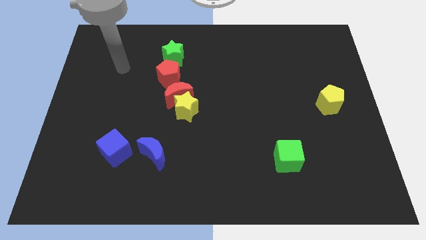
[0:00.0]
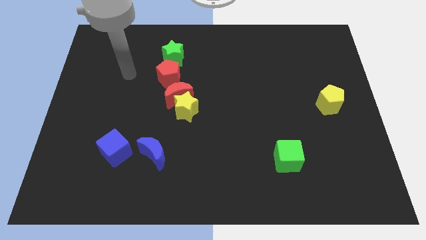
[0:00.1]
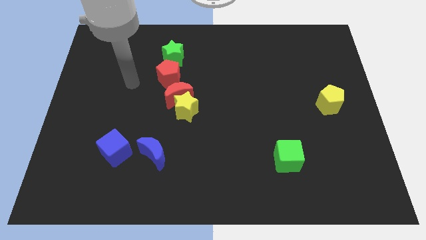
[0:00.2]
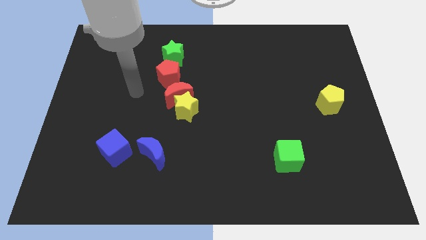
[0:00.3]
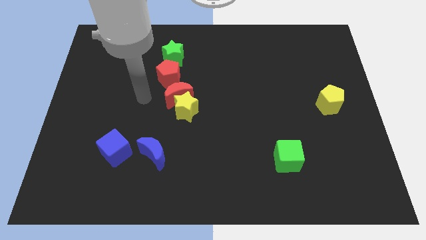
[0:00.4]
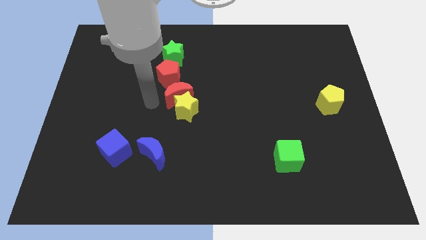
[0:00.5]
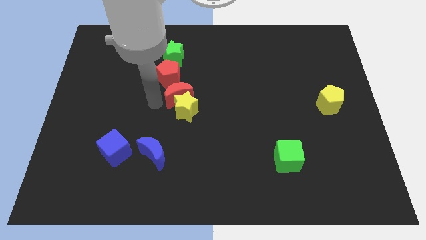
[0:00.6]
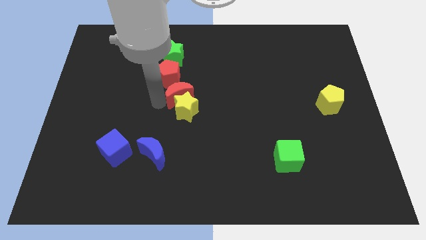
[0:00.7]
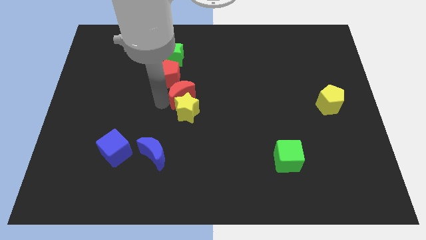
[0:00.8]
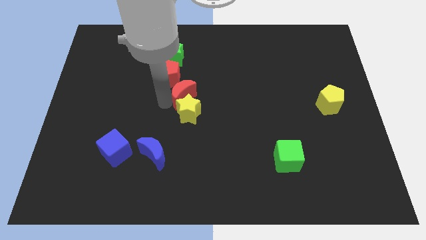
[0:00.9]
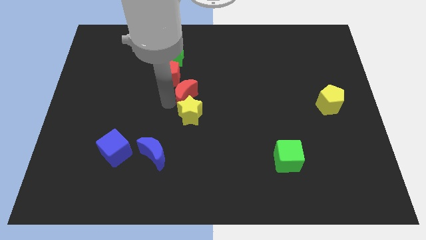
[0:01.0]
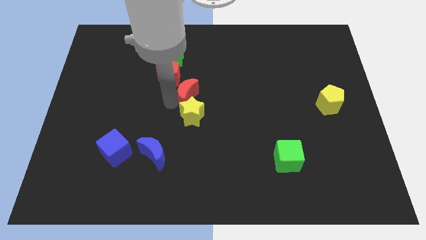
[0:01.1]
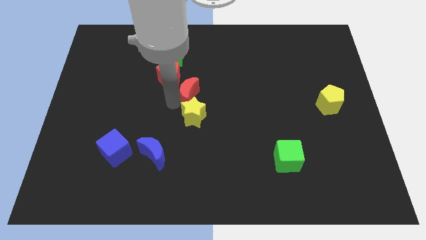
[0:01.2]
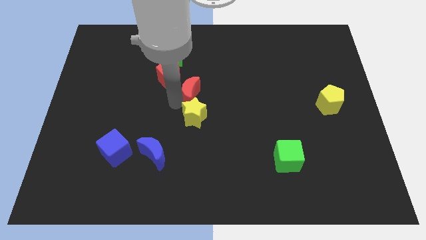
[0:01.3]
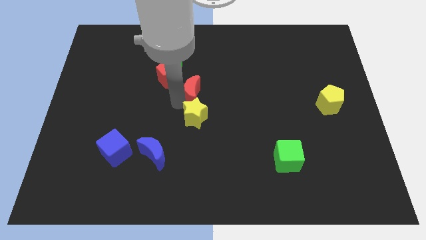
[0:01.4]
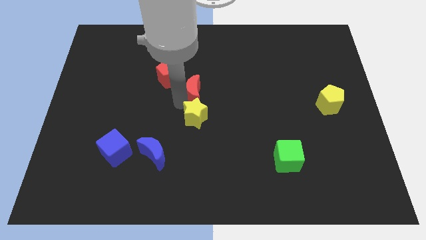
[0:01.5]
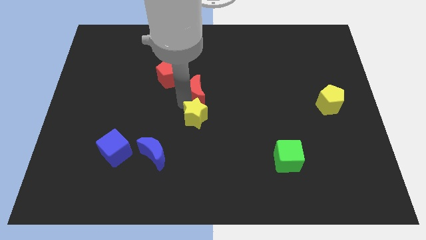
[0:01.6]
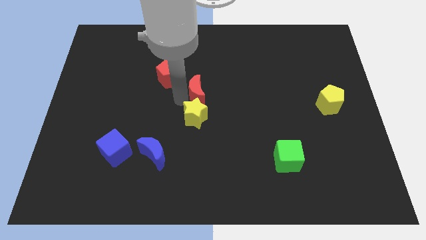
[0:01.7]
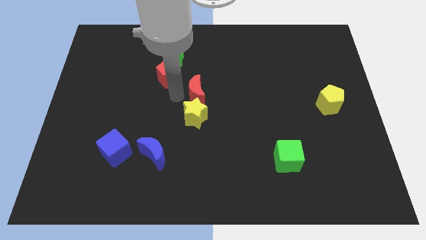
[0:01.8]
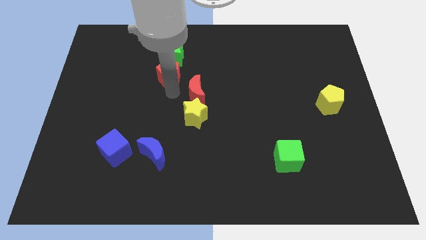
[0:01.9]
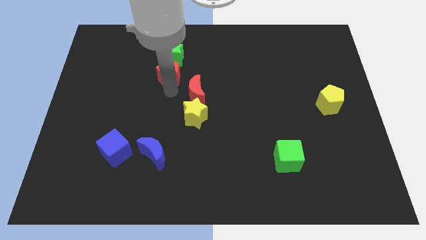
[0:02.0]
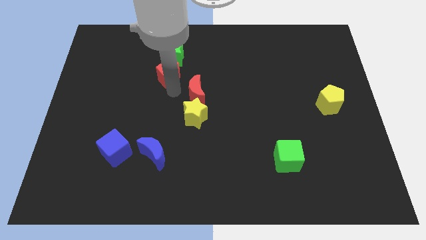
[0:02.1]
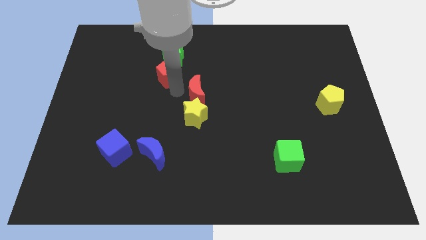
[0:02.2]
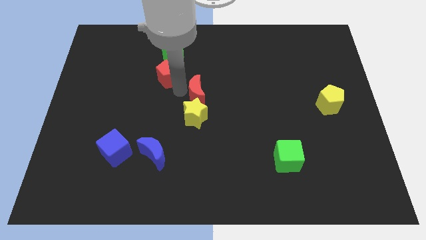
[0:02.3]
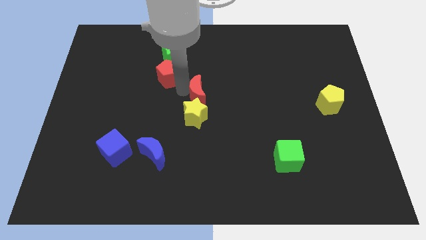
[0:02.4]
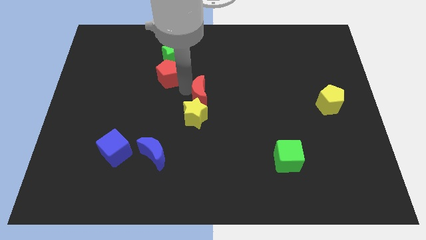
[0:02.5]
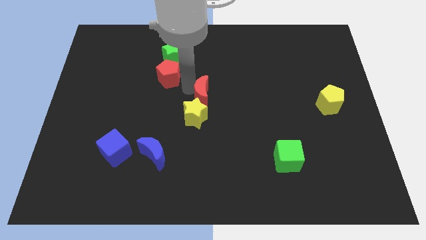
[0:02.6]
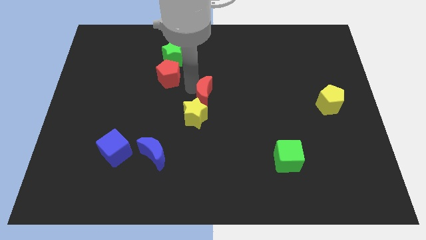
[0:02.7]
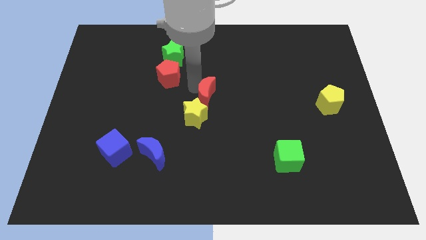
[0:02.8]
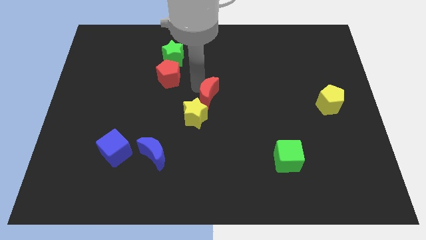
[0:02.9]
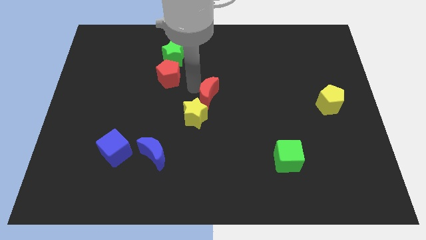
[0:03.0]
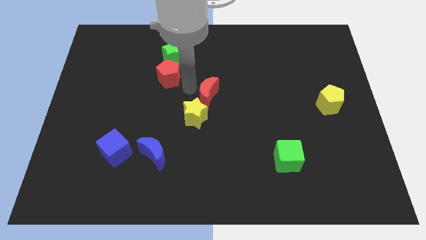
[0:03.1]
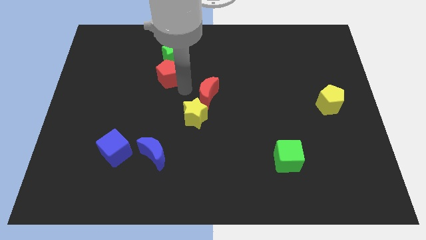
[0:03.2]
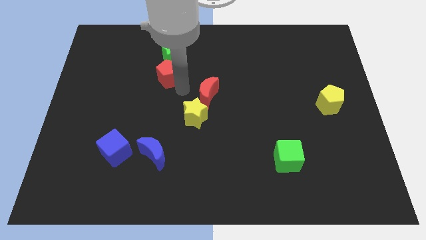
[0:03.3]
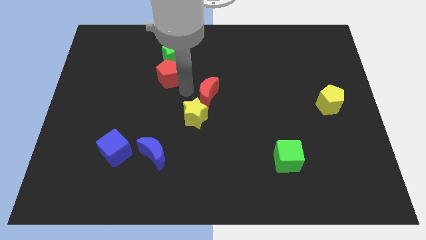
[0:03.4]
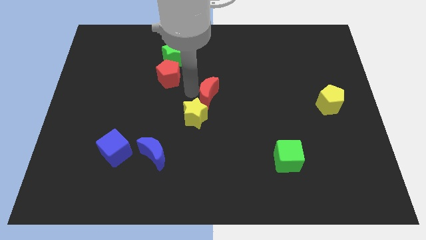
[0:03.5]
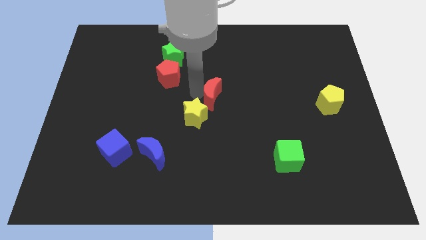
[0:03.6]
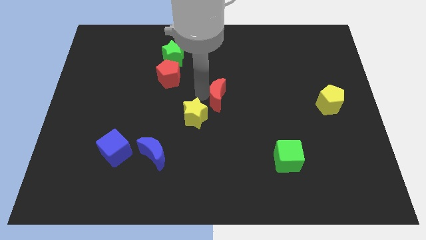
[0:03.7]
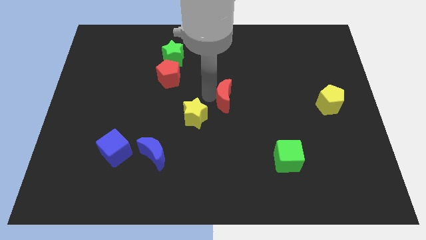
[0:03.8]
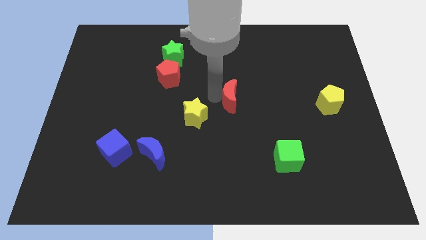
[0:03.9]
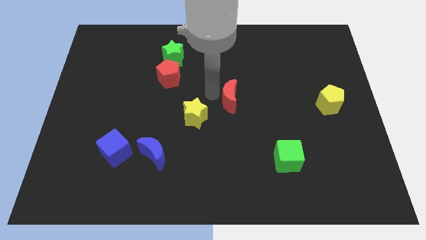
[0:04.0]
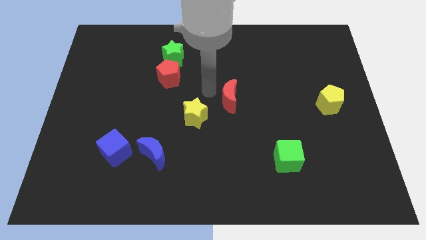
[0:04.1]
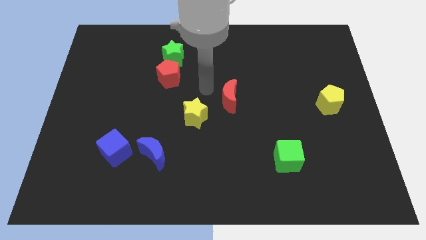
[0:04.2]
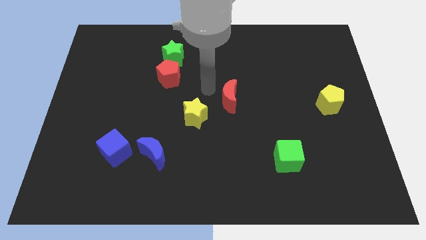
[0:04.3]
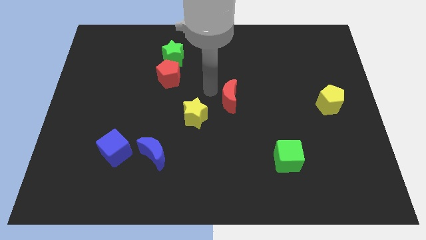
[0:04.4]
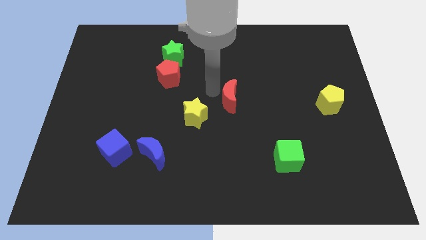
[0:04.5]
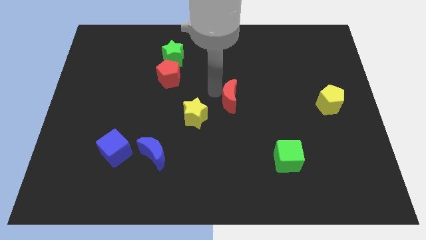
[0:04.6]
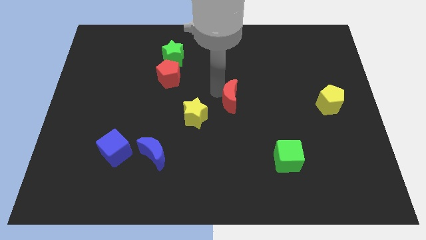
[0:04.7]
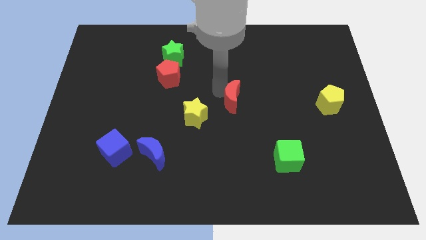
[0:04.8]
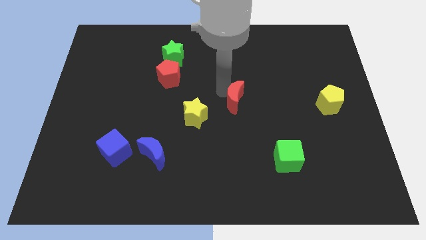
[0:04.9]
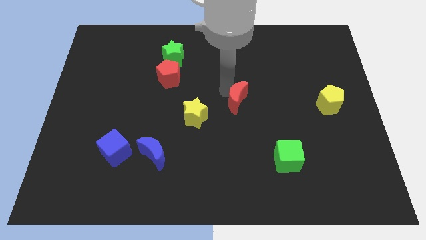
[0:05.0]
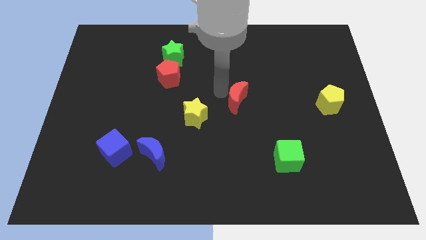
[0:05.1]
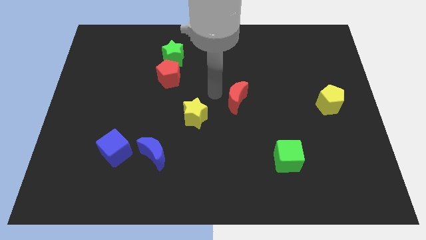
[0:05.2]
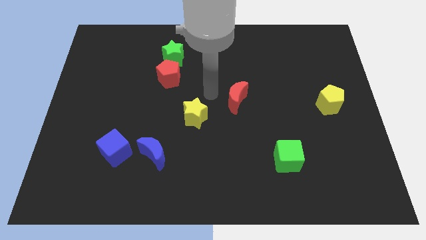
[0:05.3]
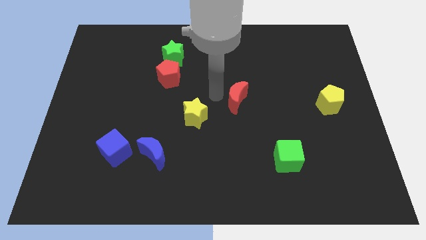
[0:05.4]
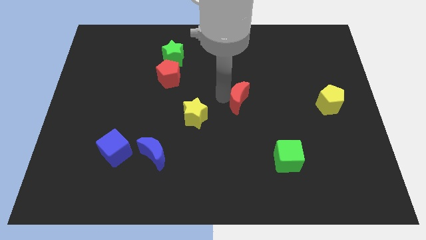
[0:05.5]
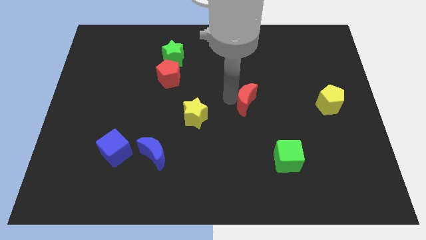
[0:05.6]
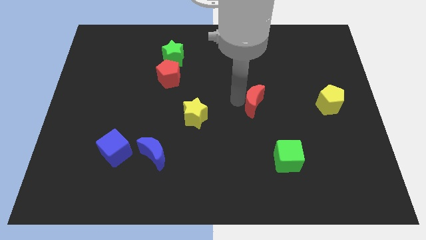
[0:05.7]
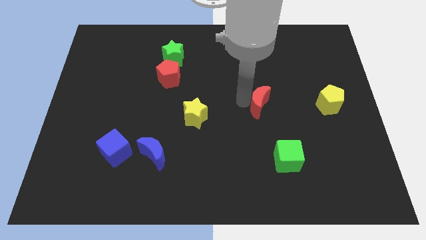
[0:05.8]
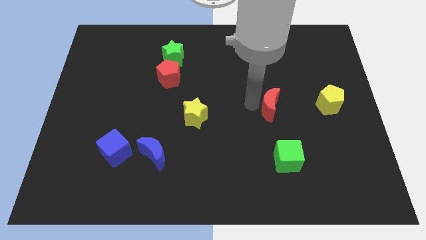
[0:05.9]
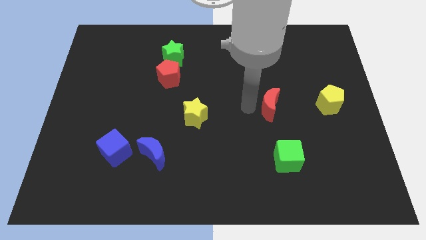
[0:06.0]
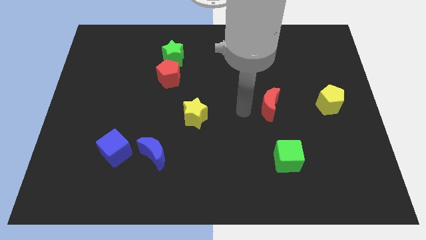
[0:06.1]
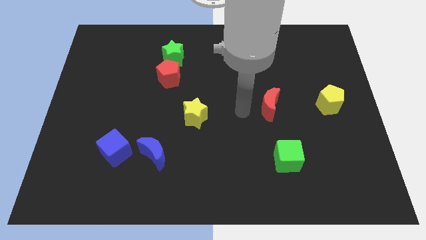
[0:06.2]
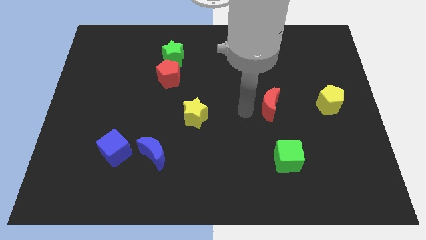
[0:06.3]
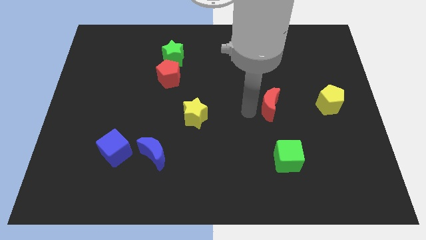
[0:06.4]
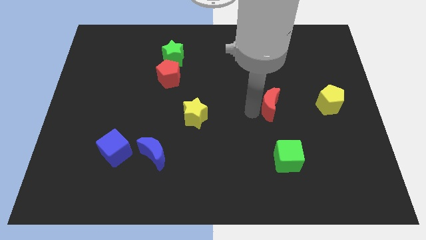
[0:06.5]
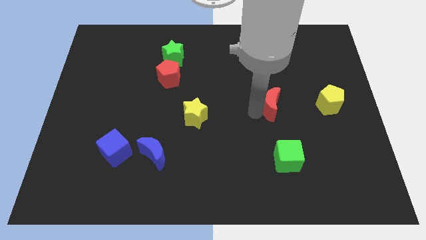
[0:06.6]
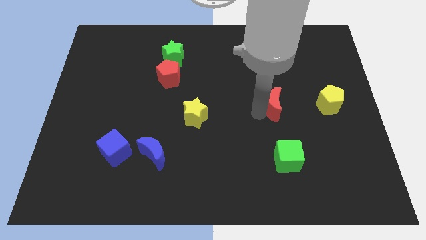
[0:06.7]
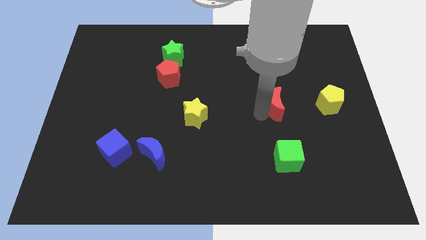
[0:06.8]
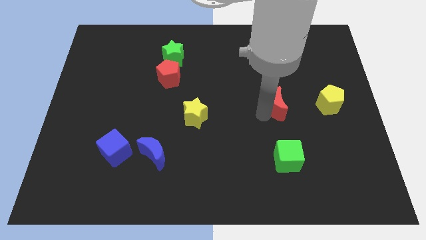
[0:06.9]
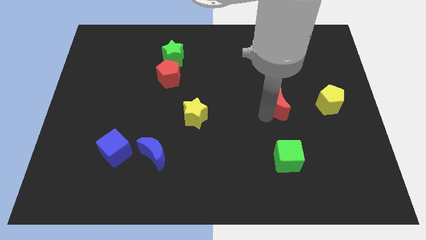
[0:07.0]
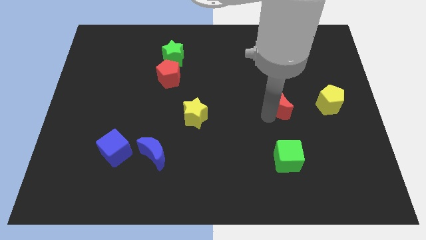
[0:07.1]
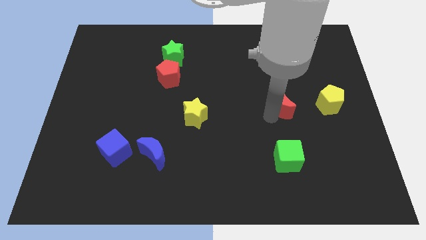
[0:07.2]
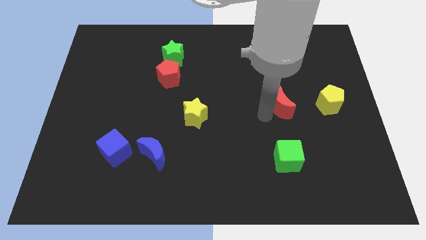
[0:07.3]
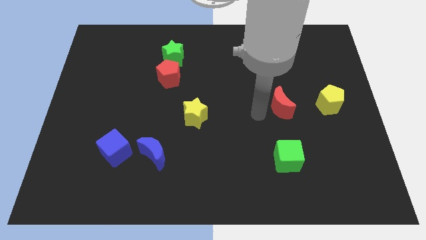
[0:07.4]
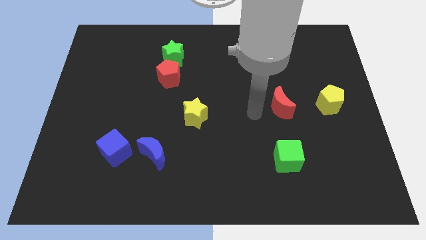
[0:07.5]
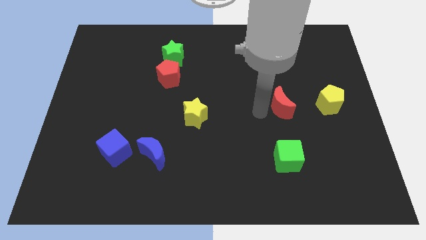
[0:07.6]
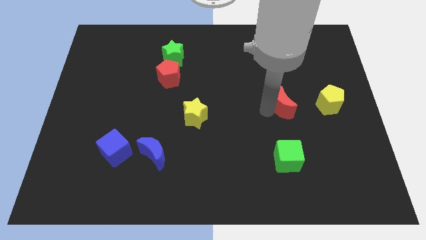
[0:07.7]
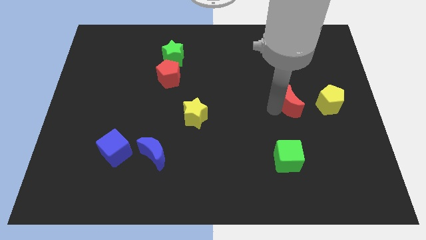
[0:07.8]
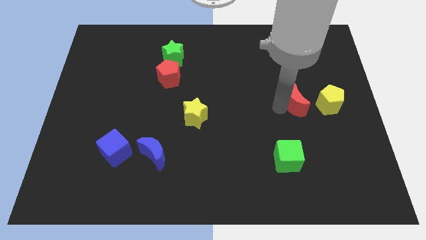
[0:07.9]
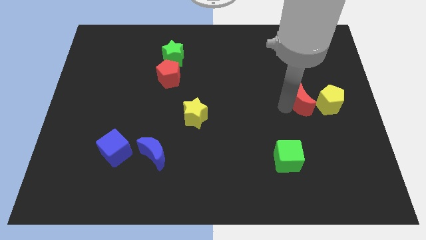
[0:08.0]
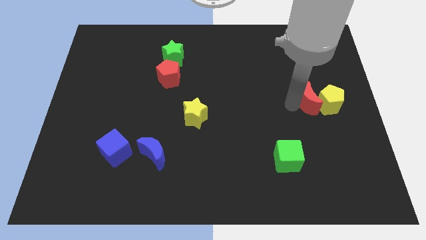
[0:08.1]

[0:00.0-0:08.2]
put the red moon close to the yellow pentagon
